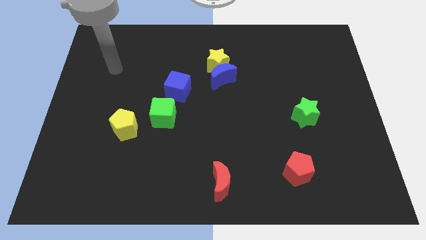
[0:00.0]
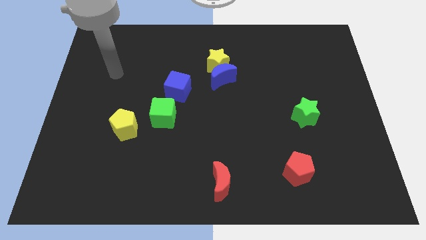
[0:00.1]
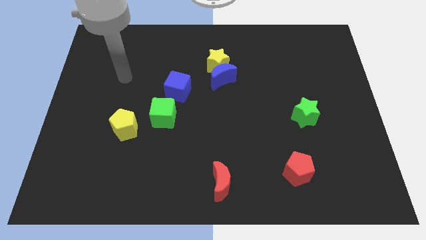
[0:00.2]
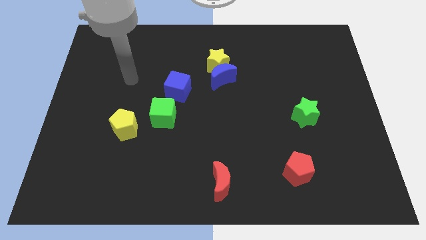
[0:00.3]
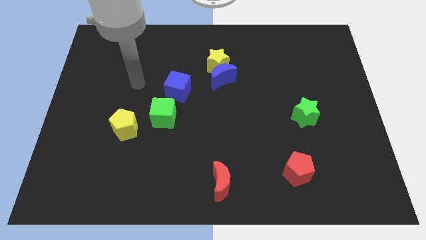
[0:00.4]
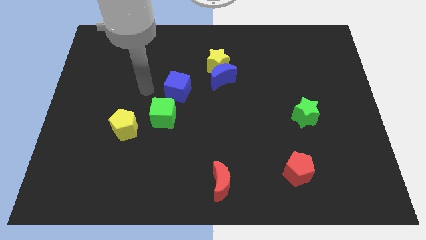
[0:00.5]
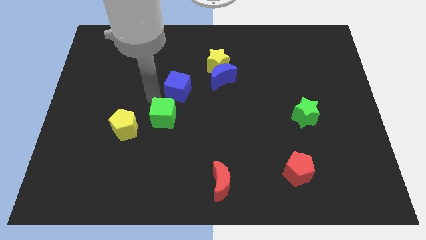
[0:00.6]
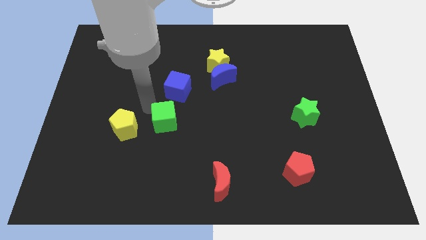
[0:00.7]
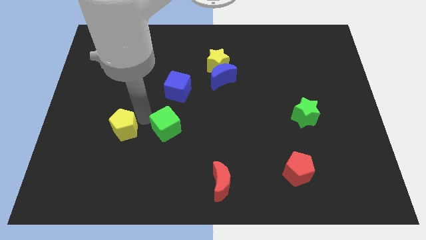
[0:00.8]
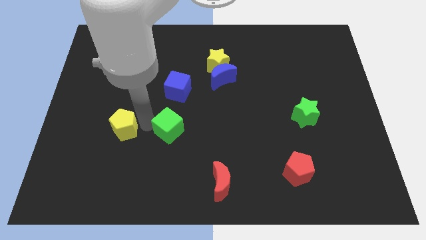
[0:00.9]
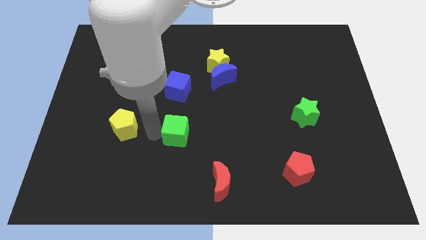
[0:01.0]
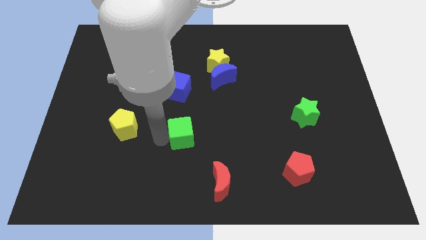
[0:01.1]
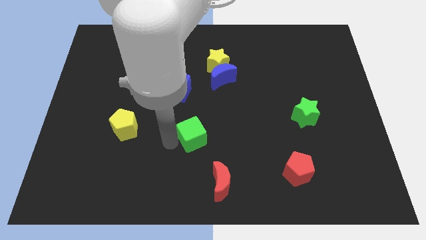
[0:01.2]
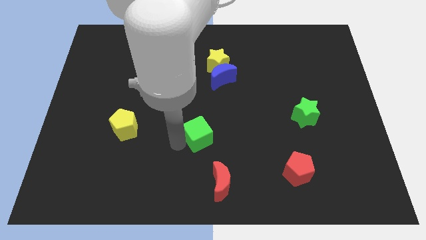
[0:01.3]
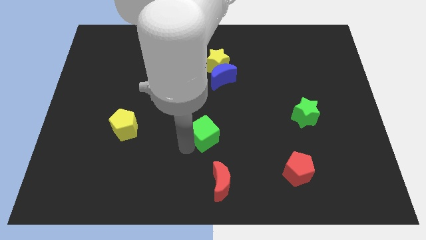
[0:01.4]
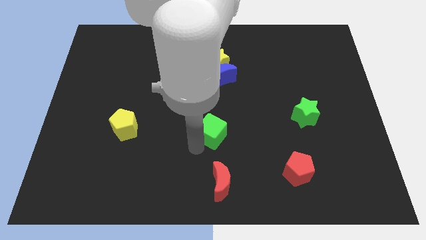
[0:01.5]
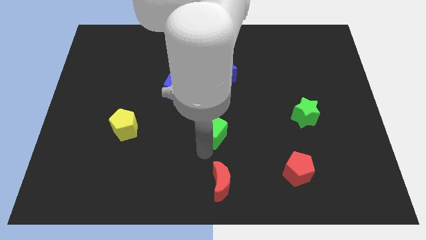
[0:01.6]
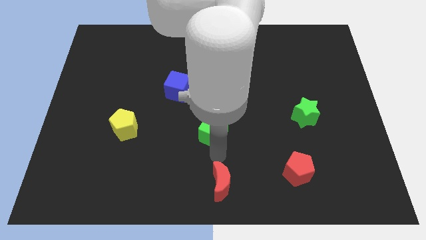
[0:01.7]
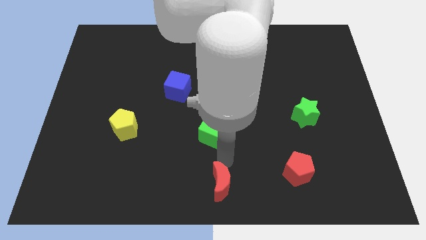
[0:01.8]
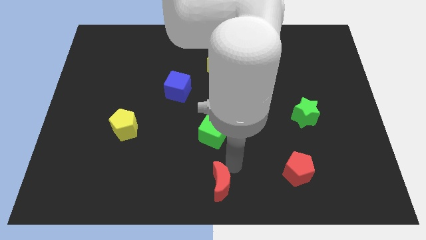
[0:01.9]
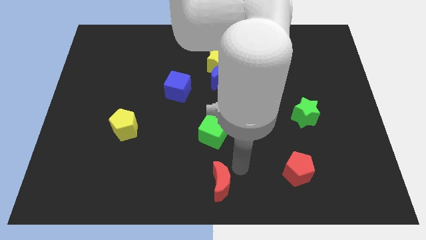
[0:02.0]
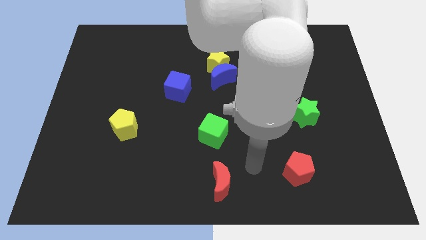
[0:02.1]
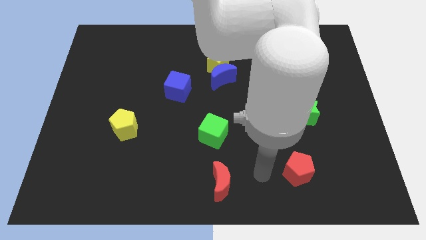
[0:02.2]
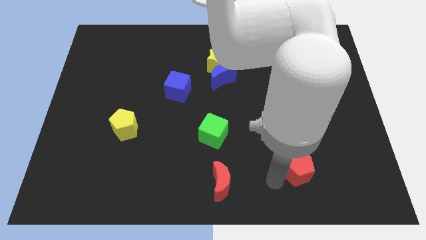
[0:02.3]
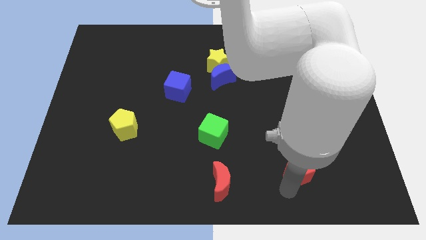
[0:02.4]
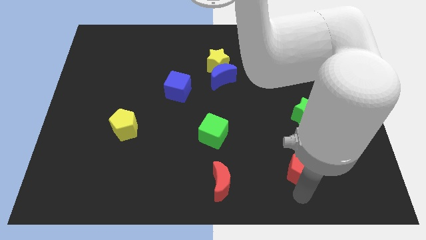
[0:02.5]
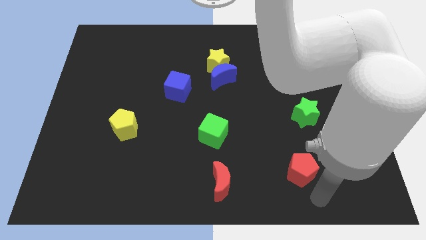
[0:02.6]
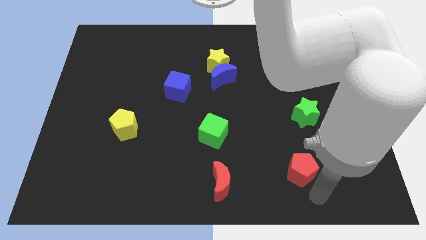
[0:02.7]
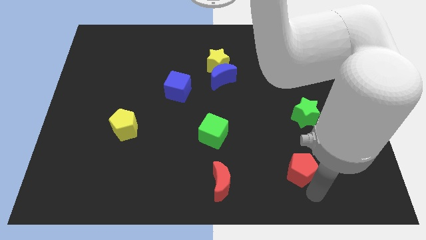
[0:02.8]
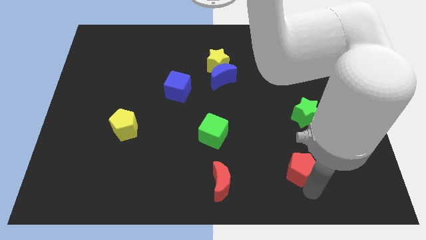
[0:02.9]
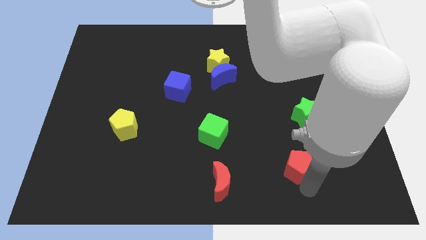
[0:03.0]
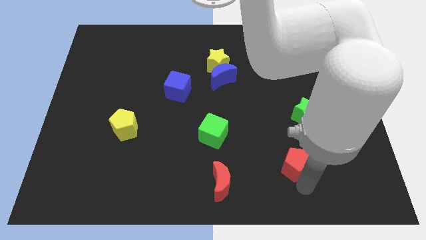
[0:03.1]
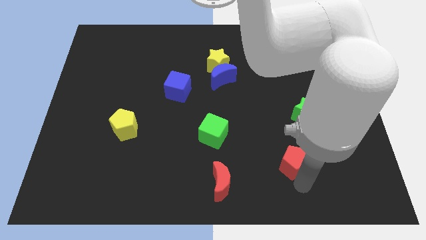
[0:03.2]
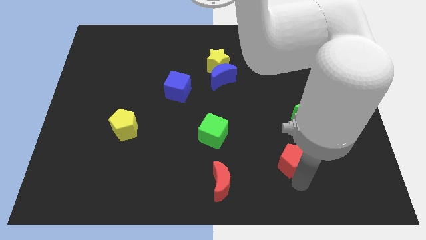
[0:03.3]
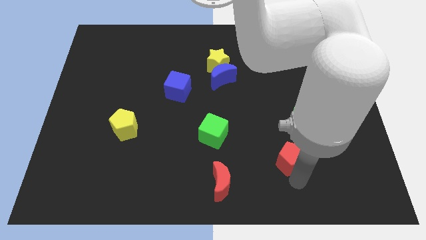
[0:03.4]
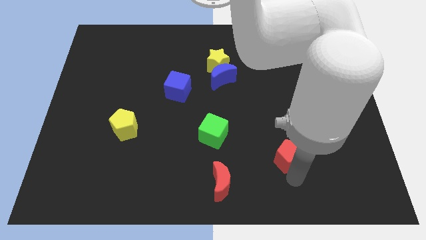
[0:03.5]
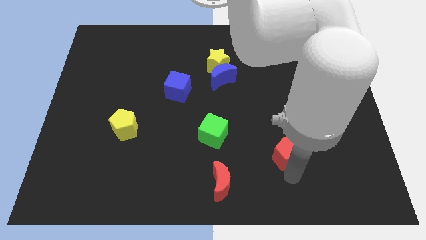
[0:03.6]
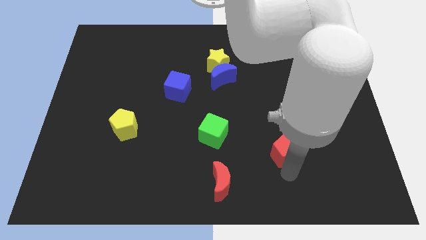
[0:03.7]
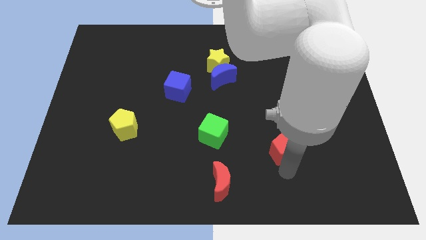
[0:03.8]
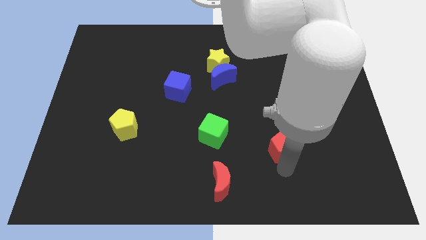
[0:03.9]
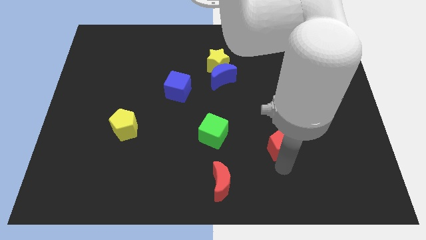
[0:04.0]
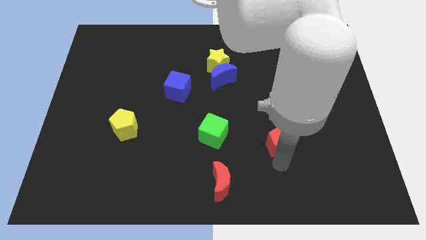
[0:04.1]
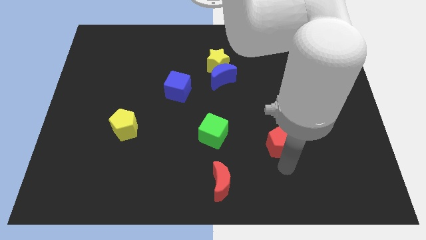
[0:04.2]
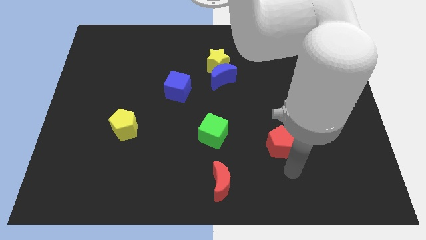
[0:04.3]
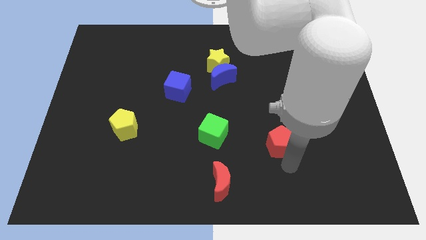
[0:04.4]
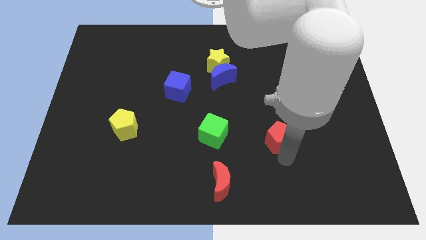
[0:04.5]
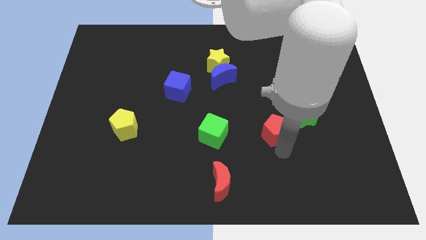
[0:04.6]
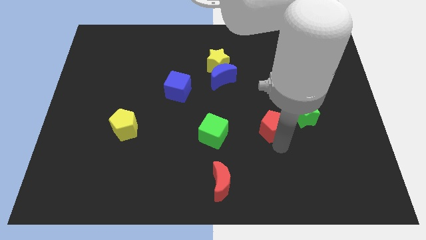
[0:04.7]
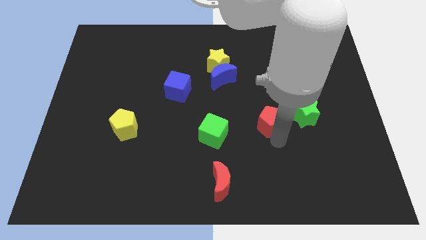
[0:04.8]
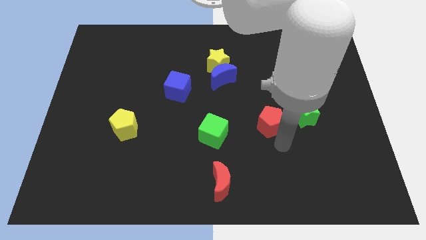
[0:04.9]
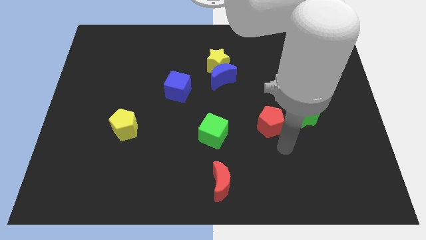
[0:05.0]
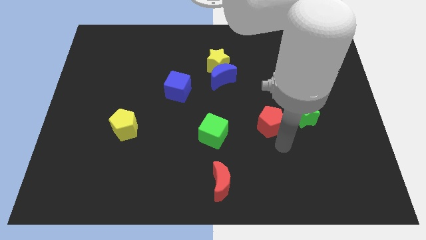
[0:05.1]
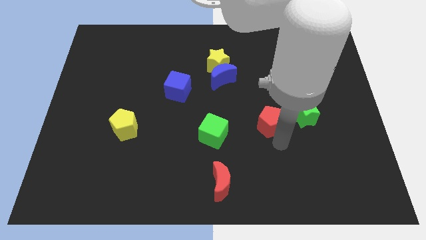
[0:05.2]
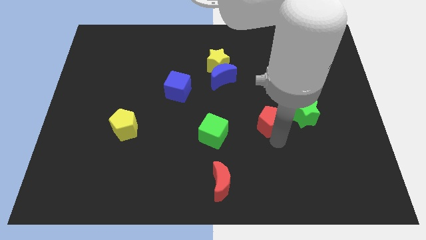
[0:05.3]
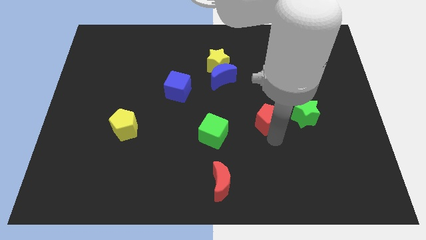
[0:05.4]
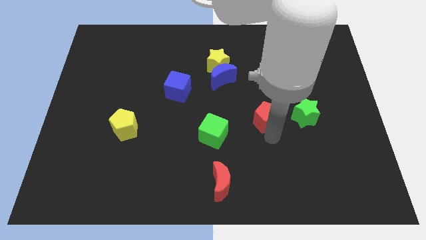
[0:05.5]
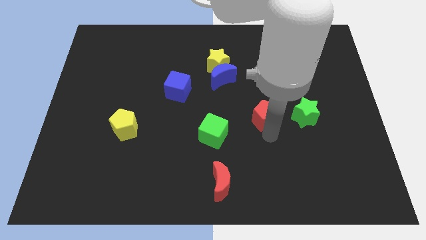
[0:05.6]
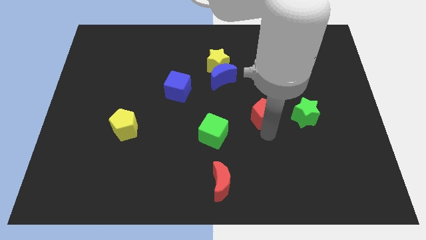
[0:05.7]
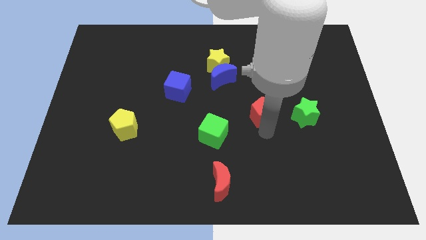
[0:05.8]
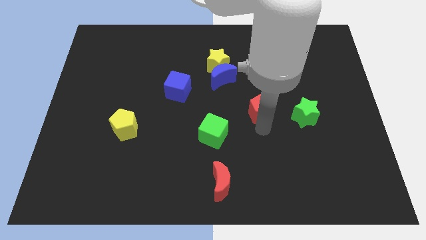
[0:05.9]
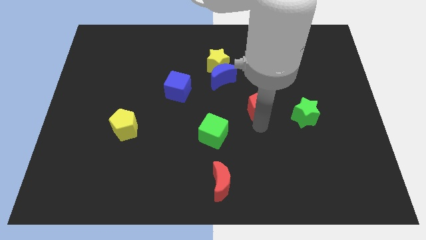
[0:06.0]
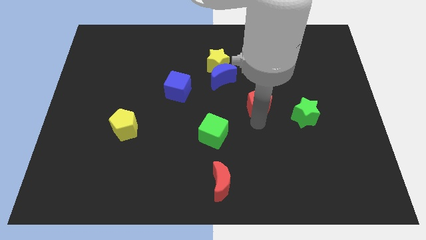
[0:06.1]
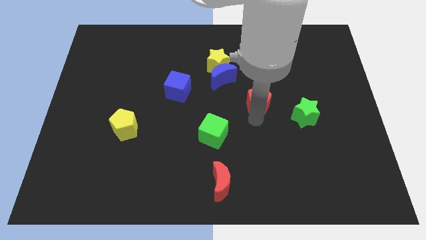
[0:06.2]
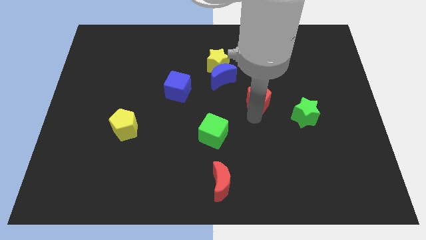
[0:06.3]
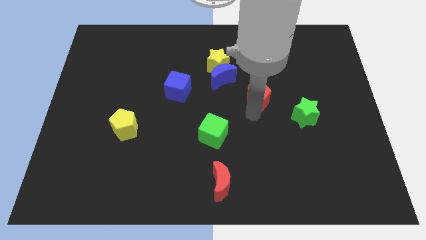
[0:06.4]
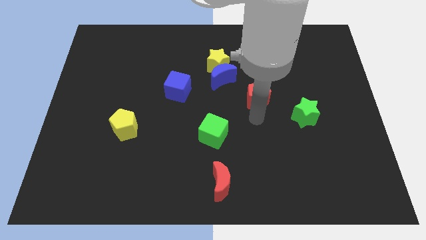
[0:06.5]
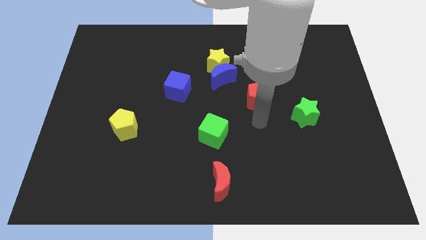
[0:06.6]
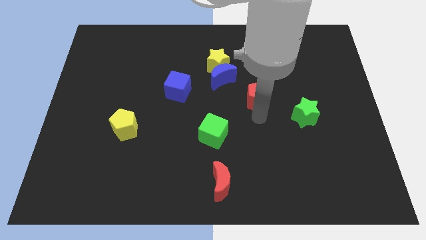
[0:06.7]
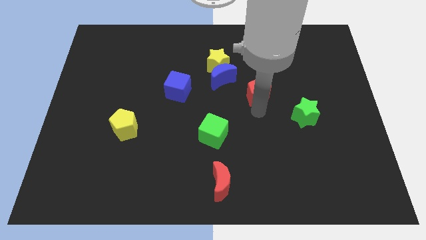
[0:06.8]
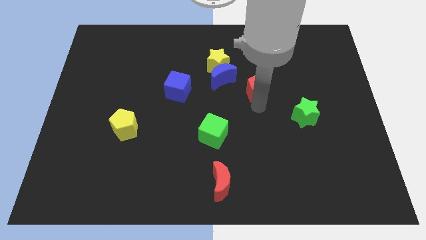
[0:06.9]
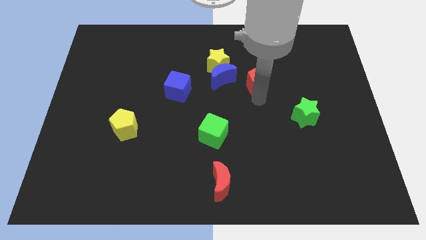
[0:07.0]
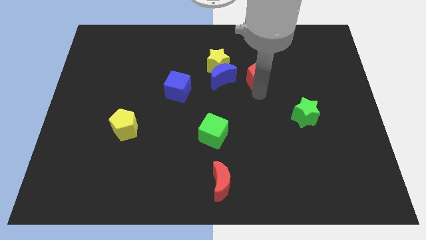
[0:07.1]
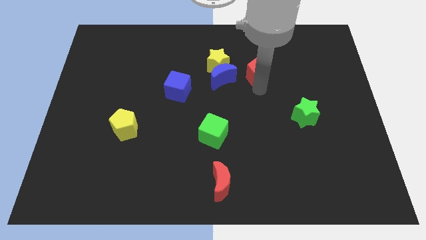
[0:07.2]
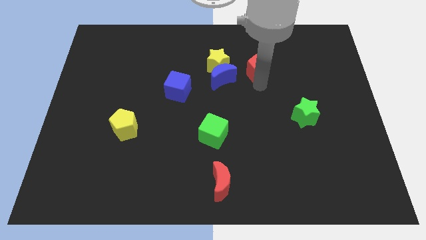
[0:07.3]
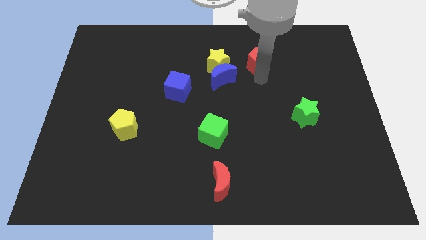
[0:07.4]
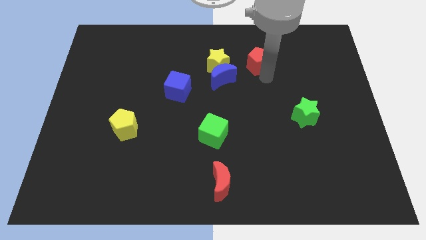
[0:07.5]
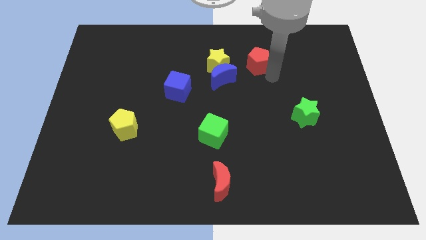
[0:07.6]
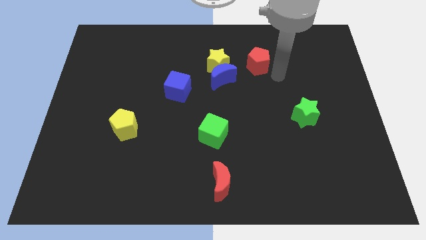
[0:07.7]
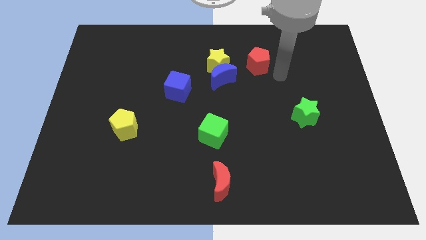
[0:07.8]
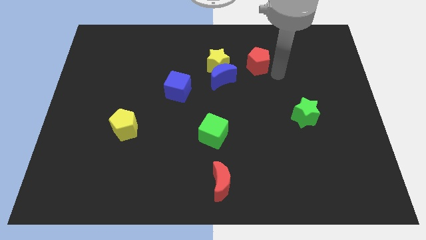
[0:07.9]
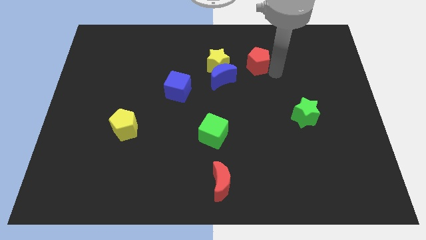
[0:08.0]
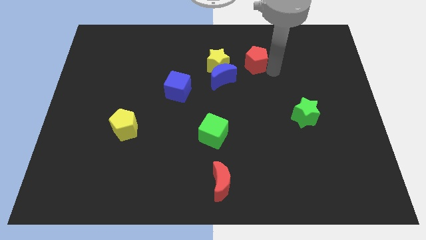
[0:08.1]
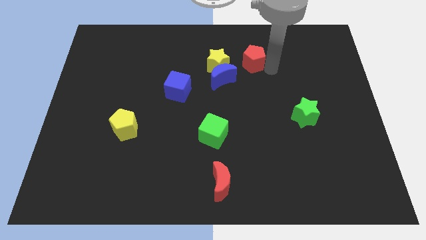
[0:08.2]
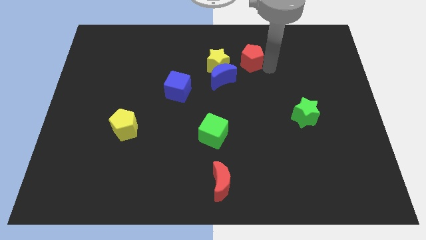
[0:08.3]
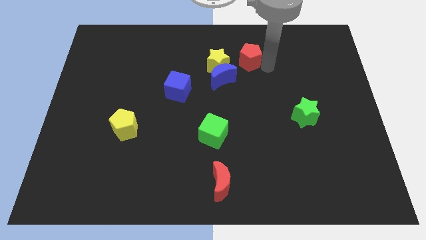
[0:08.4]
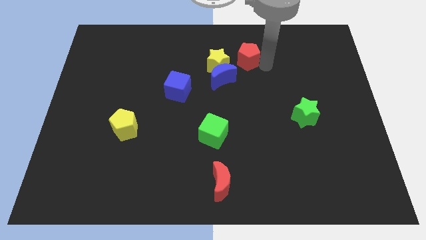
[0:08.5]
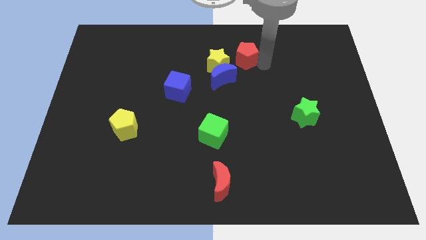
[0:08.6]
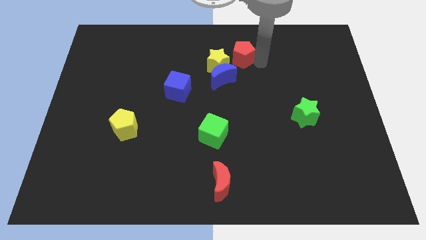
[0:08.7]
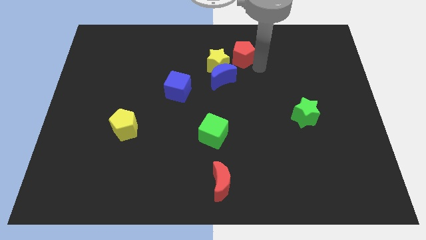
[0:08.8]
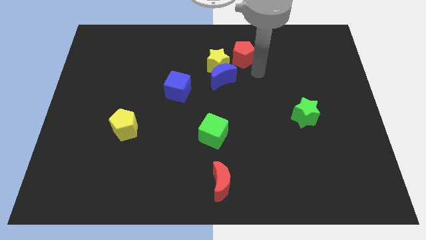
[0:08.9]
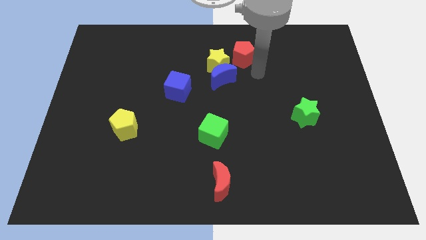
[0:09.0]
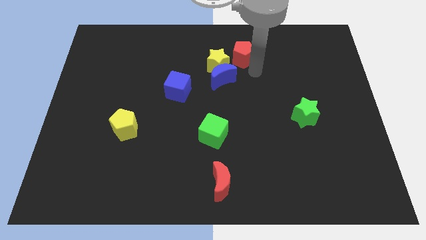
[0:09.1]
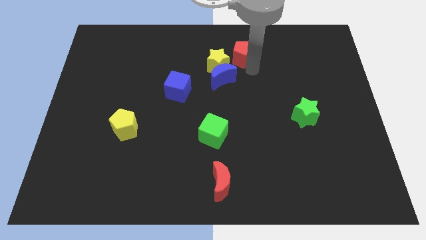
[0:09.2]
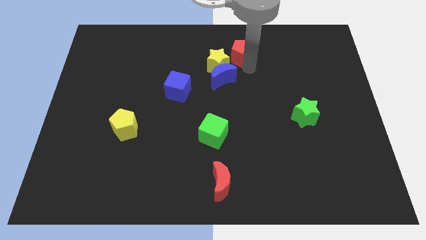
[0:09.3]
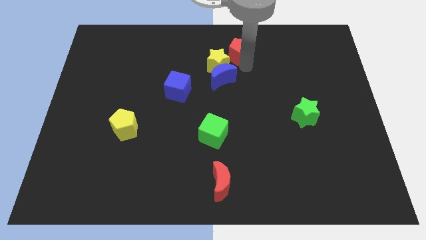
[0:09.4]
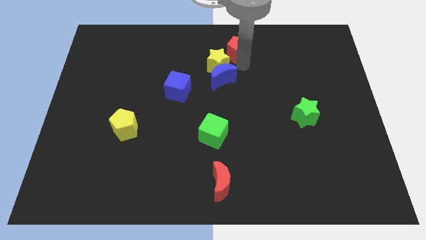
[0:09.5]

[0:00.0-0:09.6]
slide the red pentagon to the towards your base
